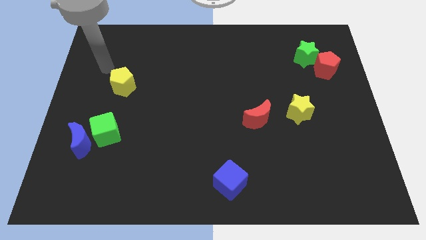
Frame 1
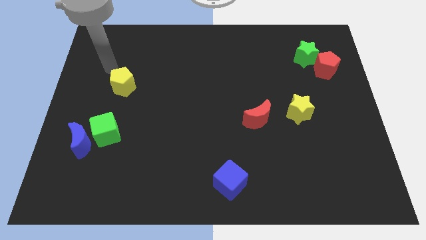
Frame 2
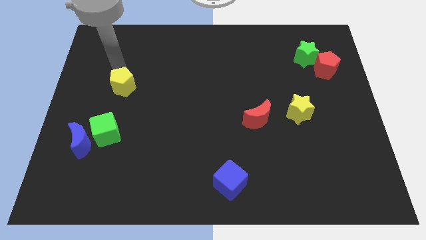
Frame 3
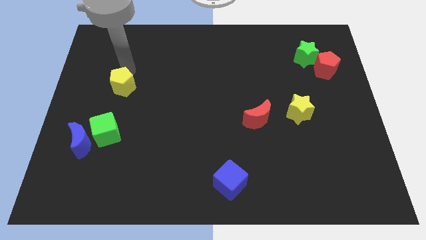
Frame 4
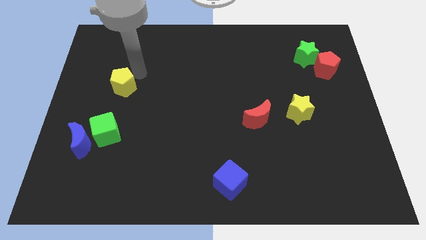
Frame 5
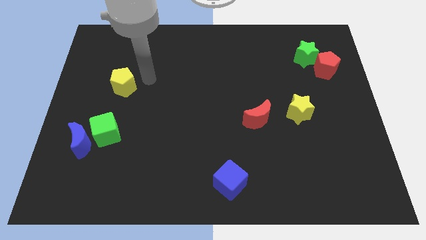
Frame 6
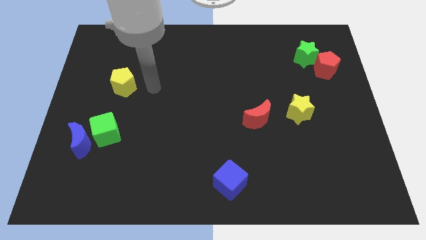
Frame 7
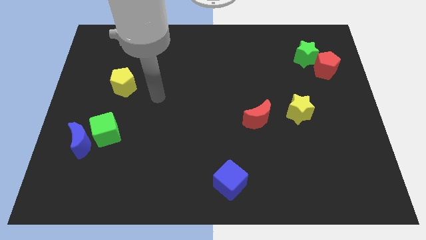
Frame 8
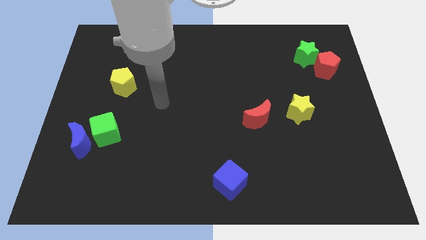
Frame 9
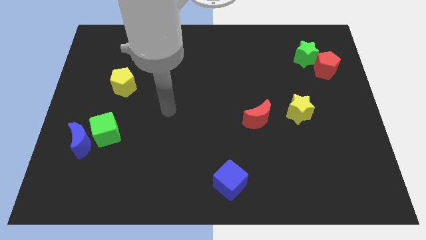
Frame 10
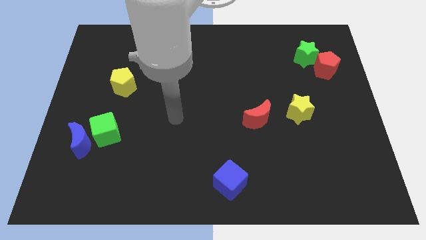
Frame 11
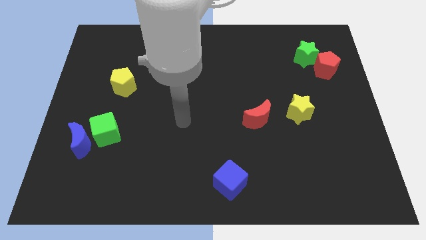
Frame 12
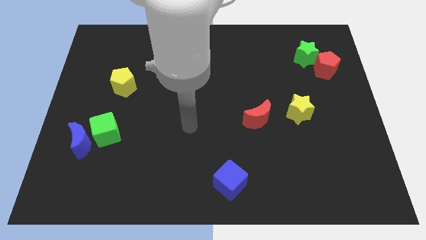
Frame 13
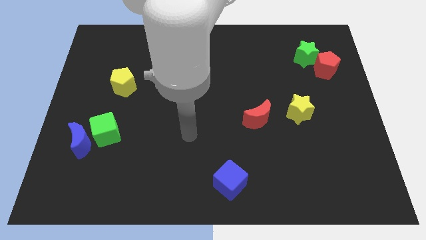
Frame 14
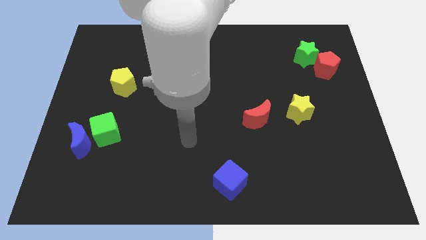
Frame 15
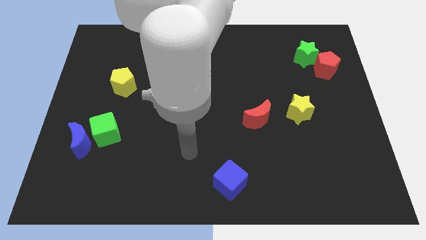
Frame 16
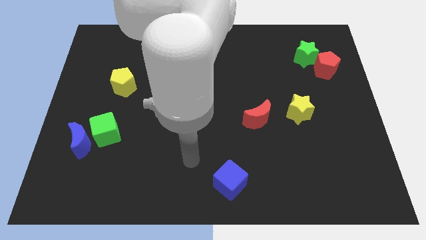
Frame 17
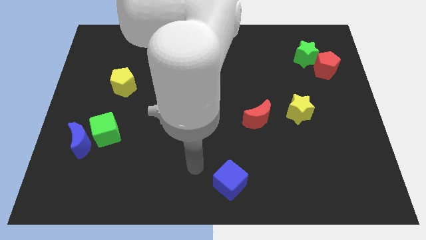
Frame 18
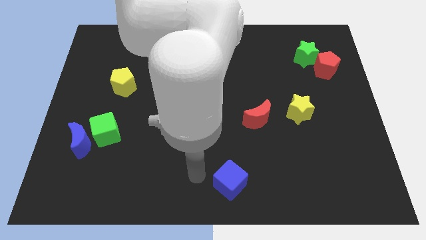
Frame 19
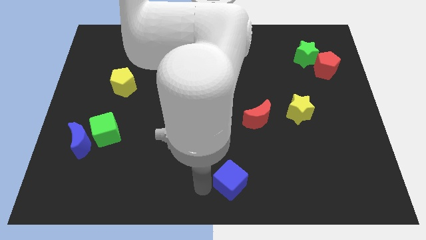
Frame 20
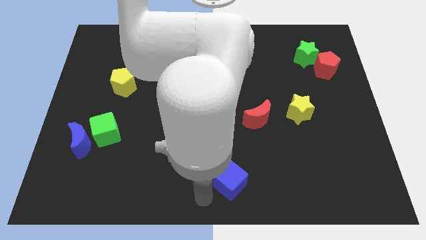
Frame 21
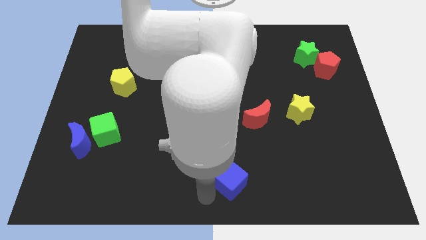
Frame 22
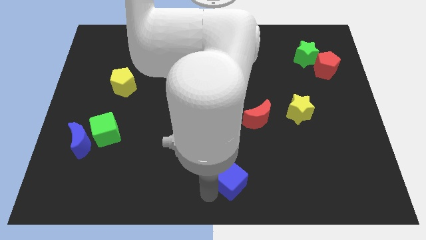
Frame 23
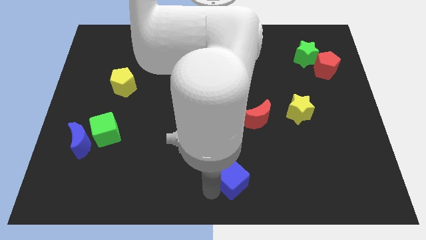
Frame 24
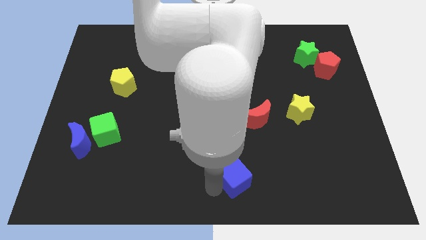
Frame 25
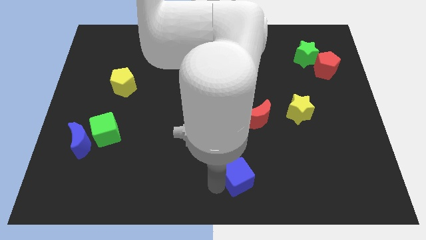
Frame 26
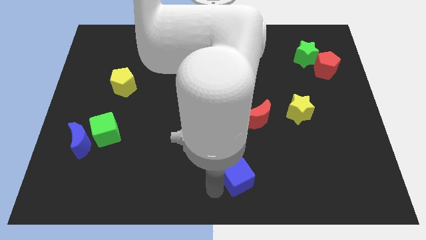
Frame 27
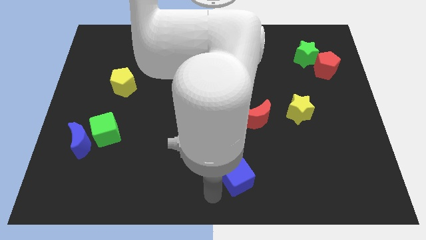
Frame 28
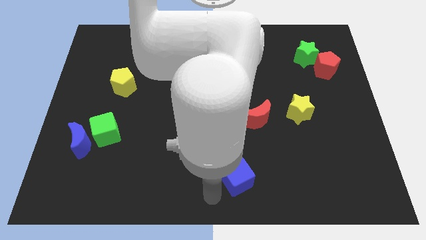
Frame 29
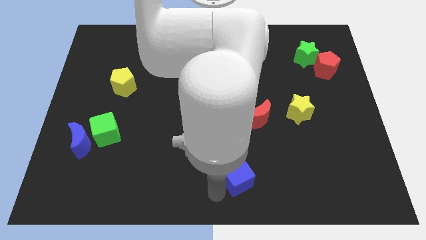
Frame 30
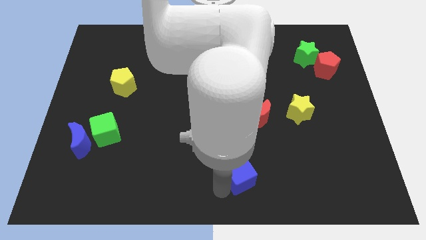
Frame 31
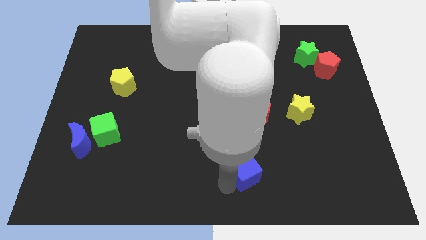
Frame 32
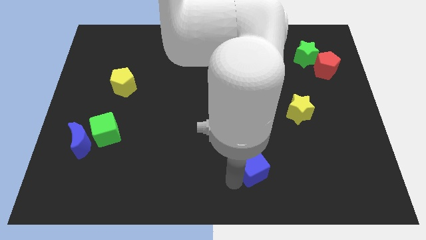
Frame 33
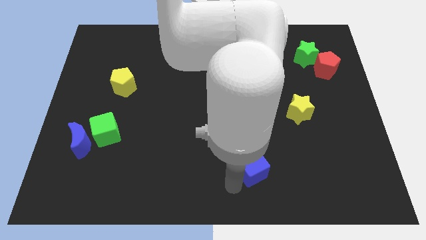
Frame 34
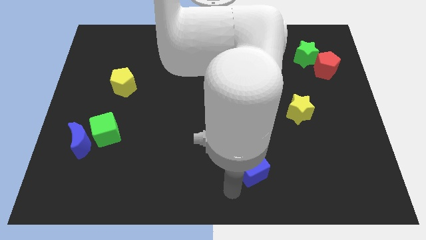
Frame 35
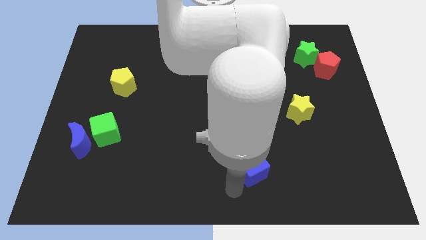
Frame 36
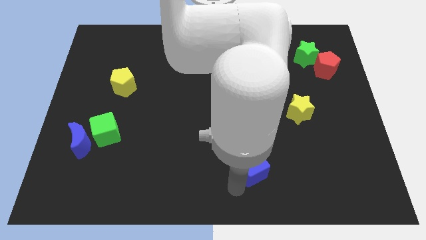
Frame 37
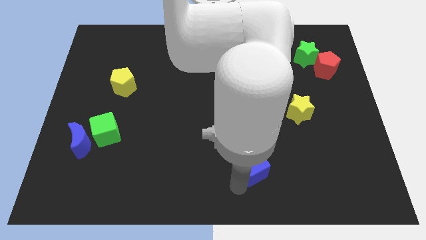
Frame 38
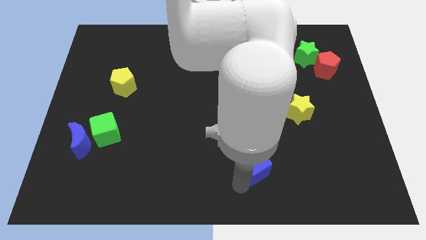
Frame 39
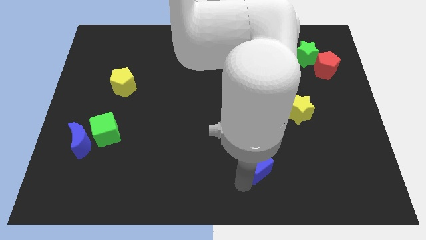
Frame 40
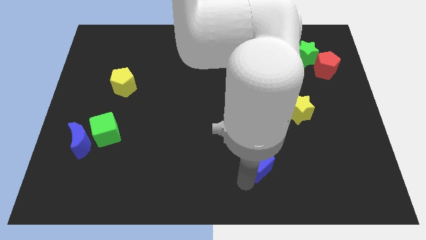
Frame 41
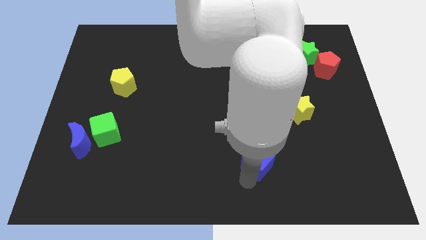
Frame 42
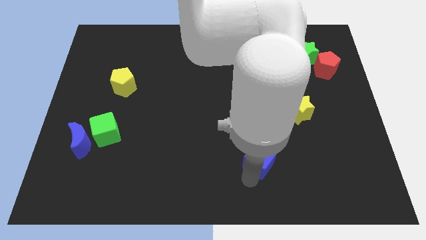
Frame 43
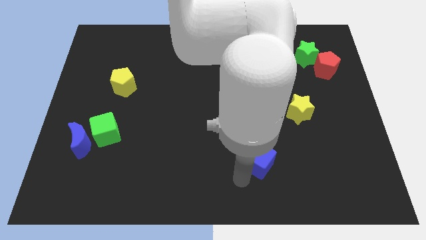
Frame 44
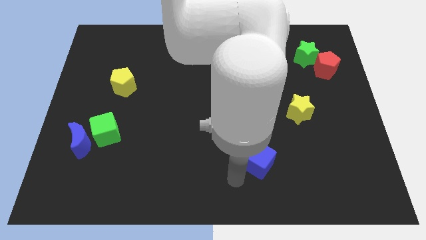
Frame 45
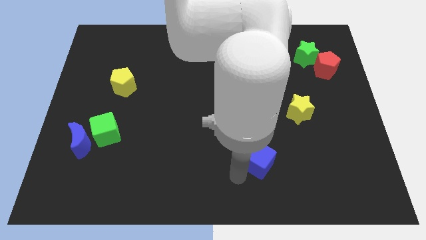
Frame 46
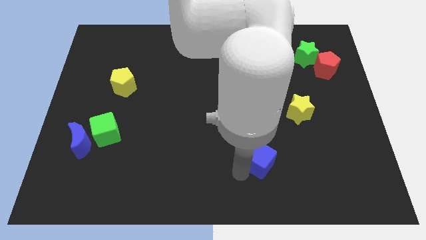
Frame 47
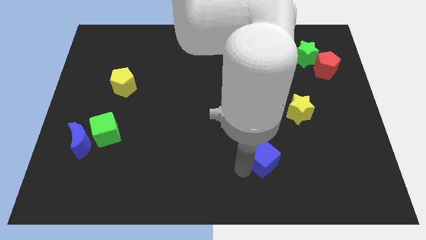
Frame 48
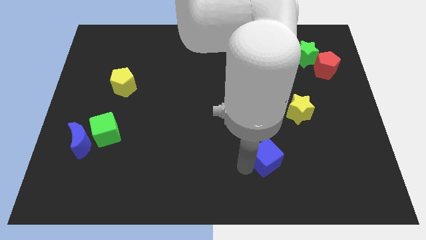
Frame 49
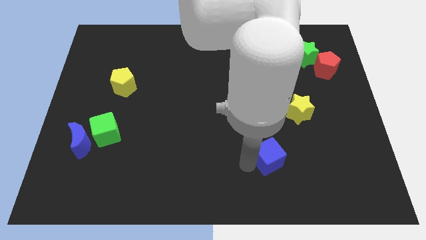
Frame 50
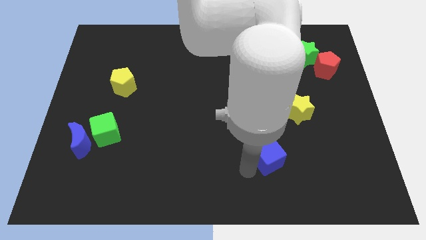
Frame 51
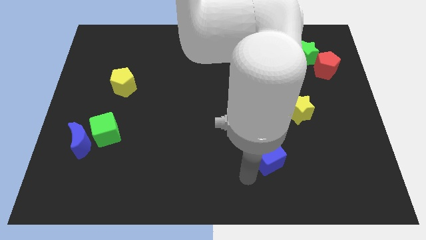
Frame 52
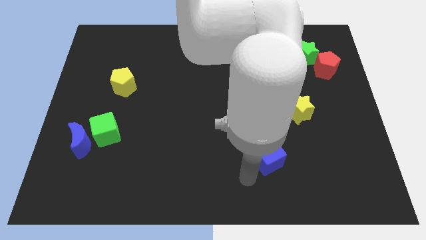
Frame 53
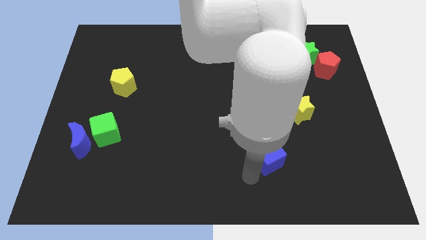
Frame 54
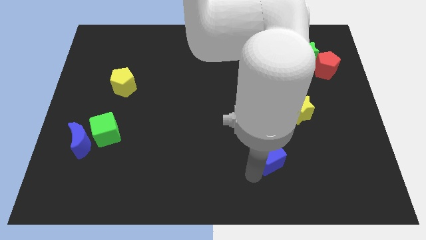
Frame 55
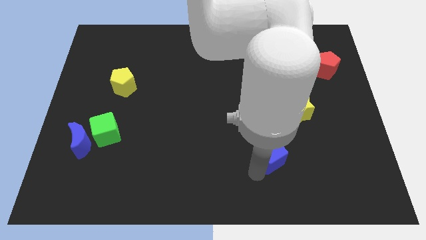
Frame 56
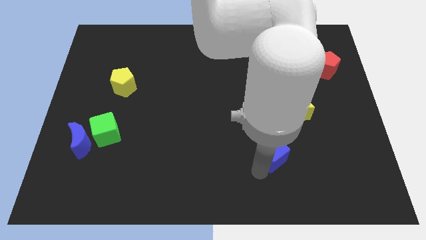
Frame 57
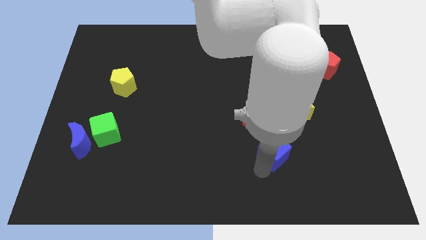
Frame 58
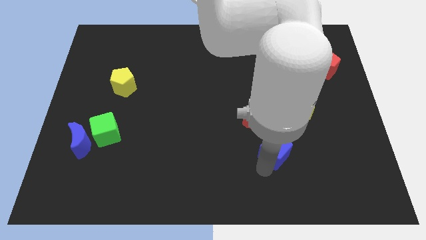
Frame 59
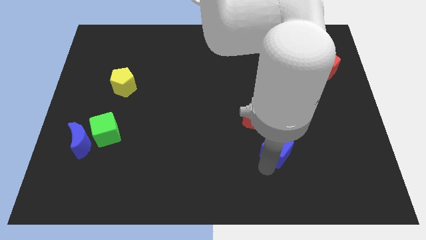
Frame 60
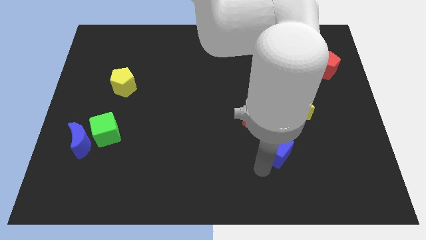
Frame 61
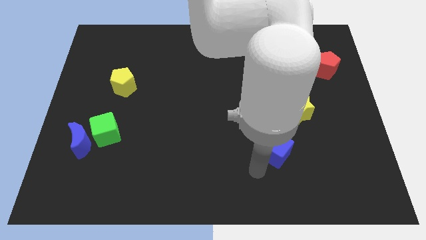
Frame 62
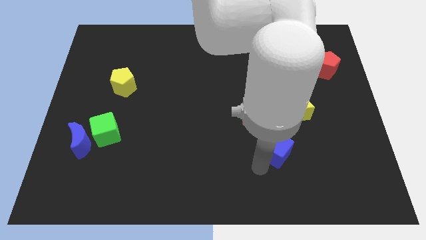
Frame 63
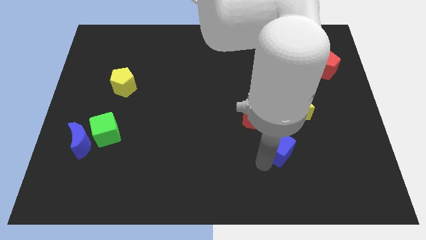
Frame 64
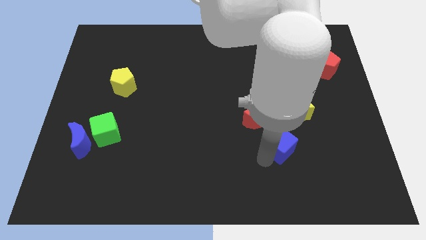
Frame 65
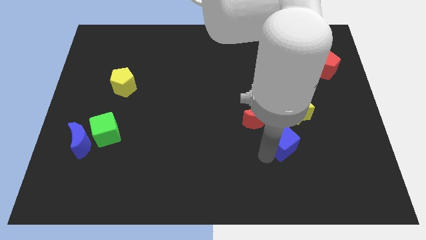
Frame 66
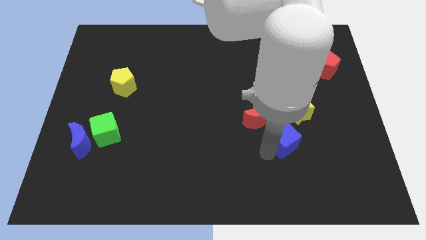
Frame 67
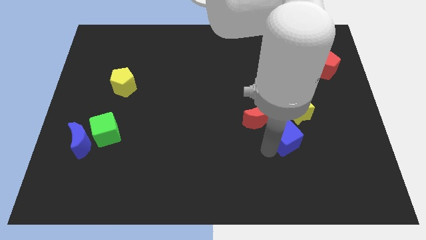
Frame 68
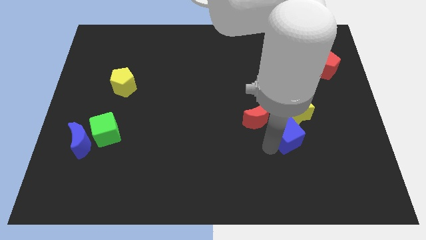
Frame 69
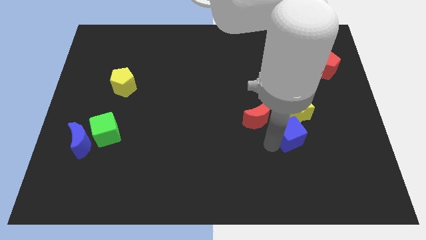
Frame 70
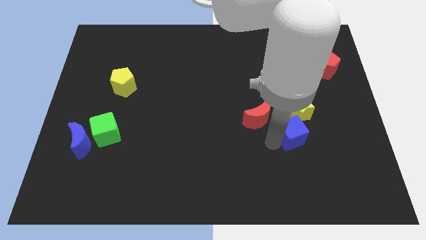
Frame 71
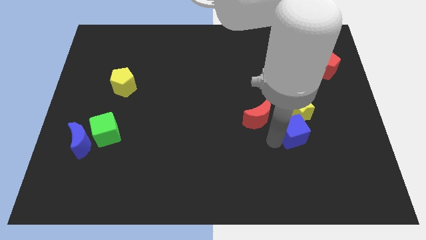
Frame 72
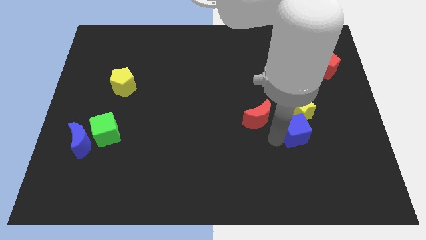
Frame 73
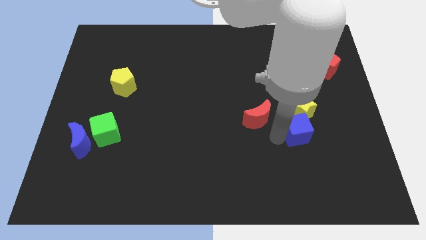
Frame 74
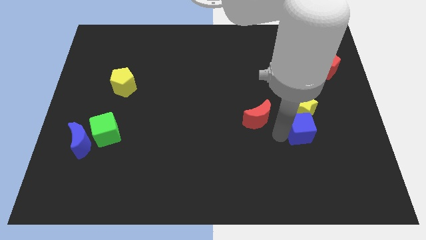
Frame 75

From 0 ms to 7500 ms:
move the blue cube diagonally upwards and to the right
